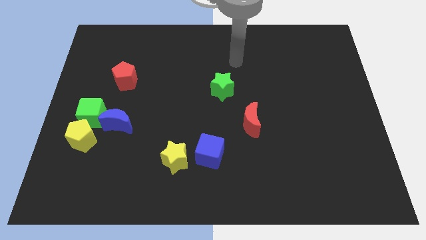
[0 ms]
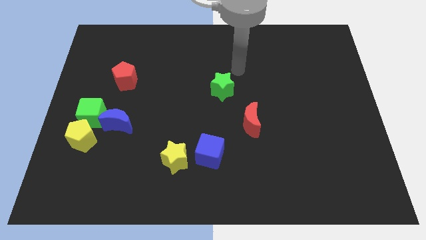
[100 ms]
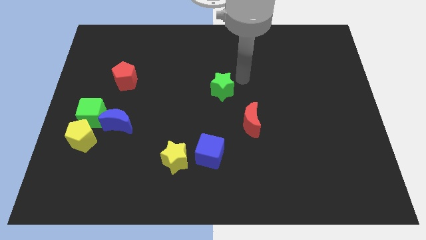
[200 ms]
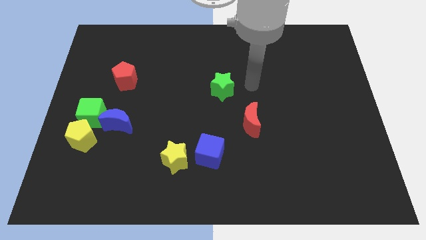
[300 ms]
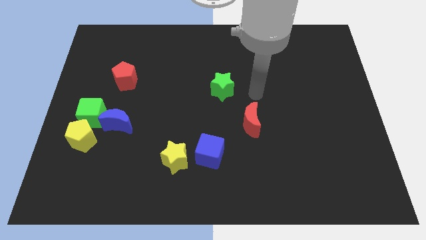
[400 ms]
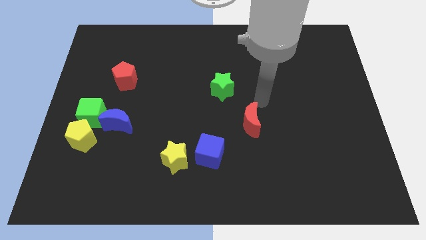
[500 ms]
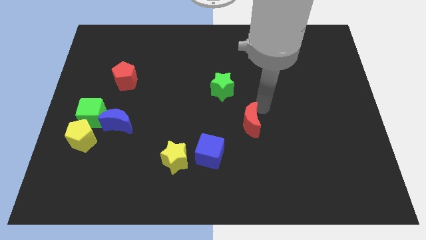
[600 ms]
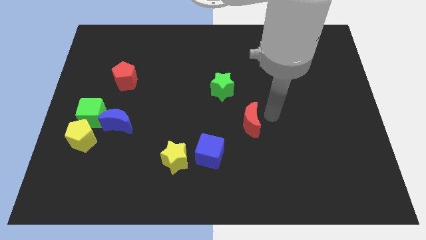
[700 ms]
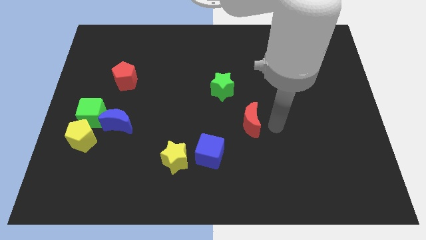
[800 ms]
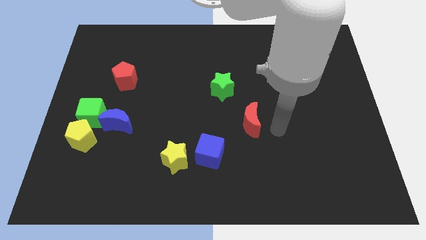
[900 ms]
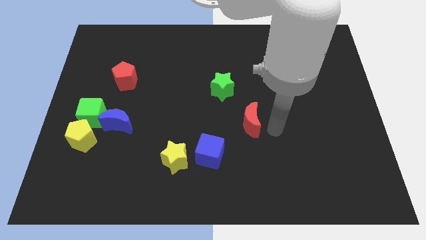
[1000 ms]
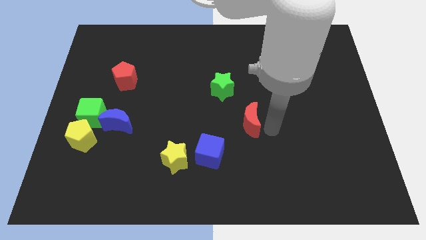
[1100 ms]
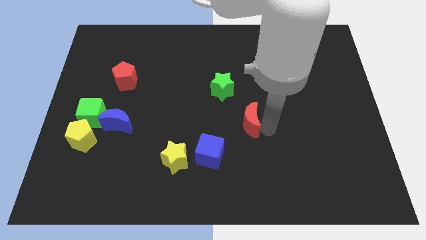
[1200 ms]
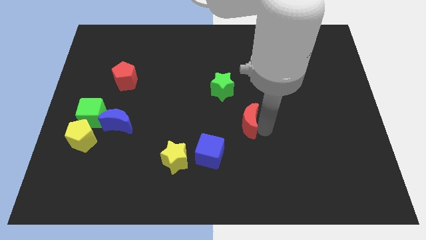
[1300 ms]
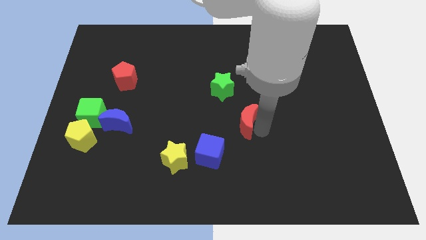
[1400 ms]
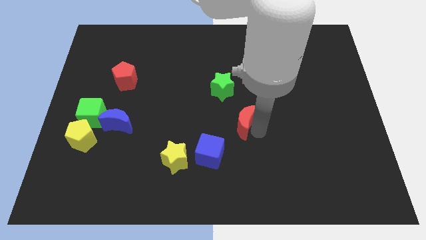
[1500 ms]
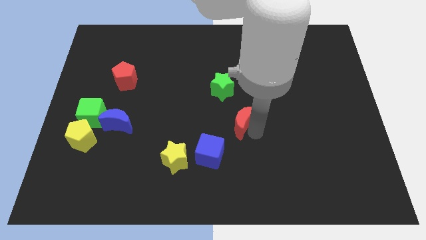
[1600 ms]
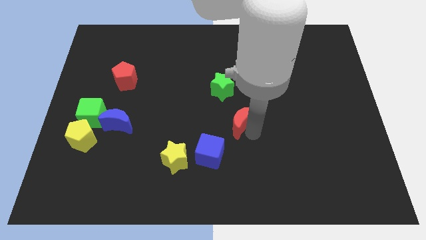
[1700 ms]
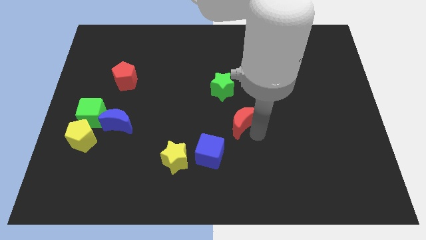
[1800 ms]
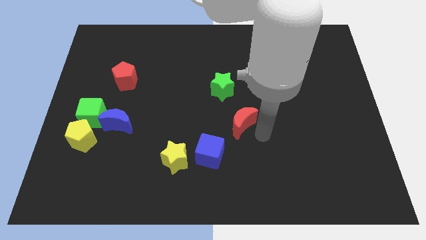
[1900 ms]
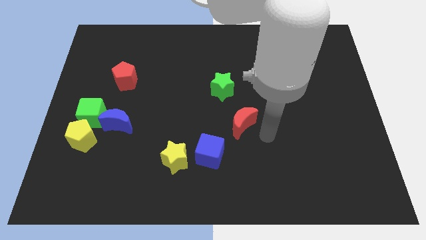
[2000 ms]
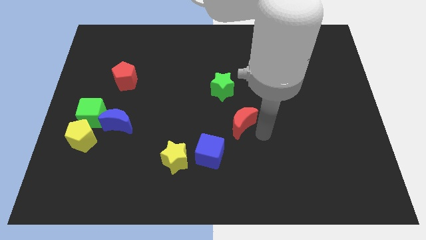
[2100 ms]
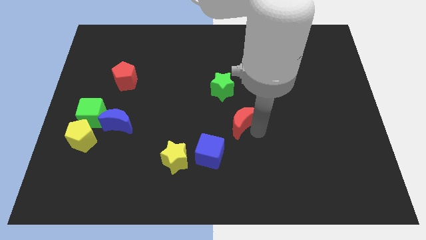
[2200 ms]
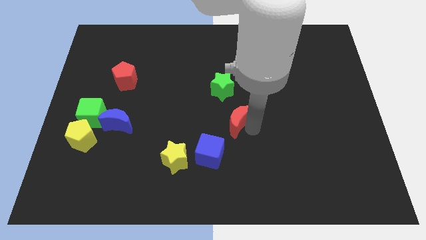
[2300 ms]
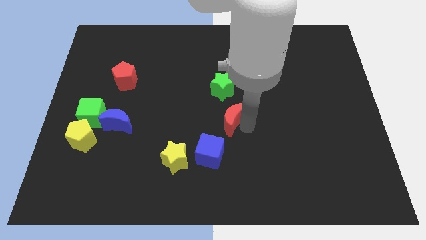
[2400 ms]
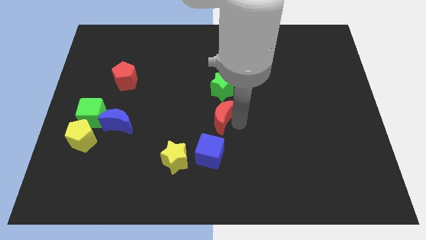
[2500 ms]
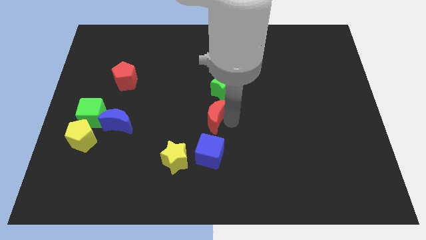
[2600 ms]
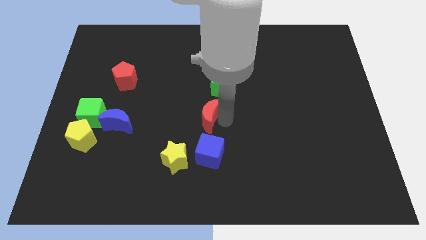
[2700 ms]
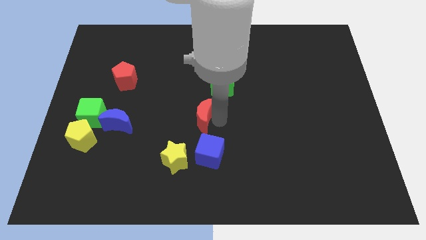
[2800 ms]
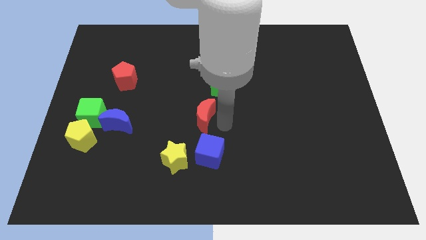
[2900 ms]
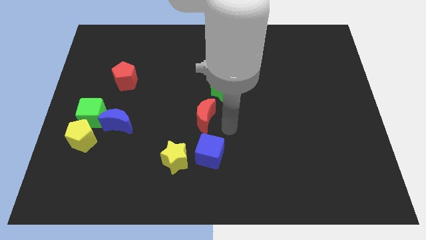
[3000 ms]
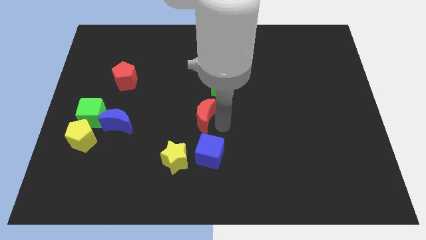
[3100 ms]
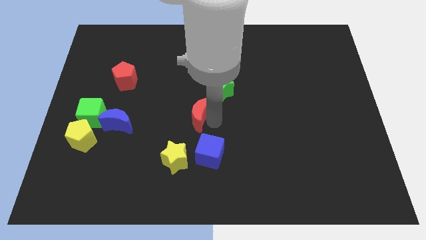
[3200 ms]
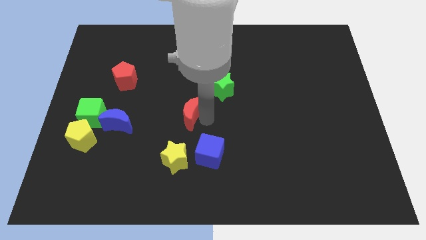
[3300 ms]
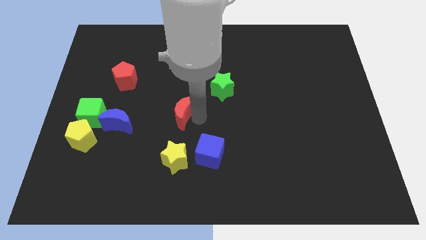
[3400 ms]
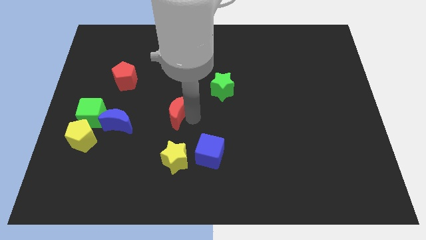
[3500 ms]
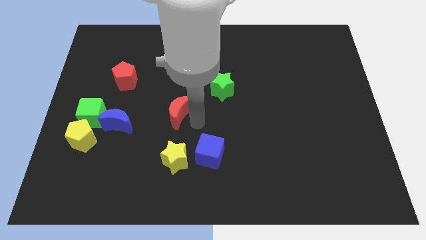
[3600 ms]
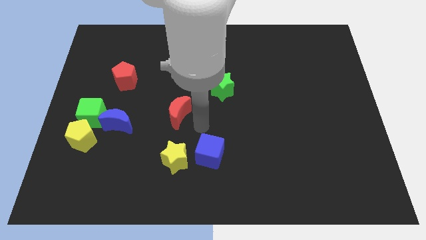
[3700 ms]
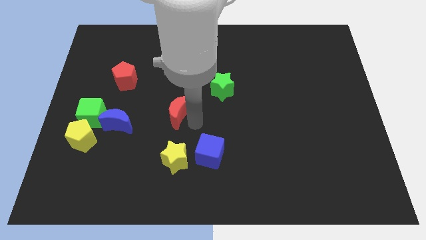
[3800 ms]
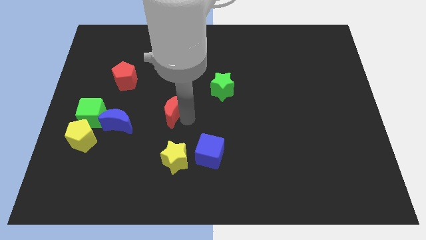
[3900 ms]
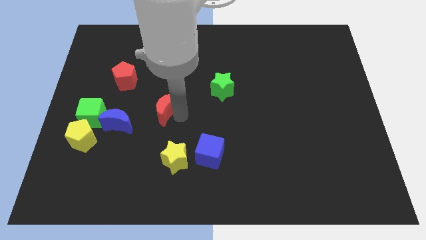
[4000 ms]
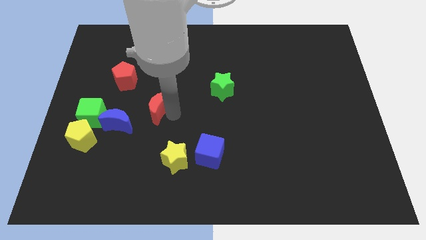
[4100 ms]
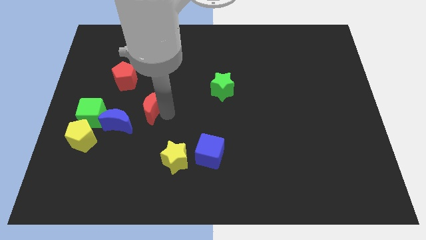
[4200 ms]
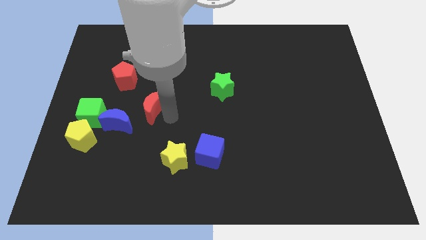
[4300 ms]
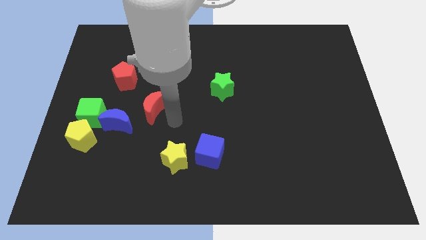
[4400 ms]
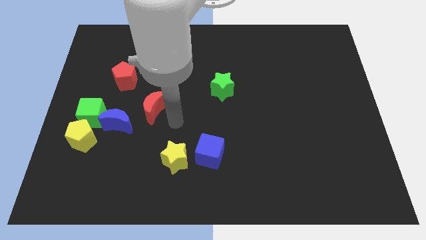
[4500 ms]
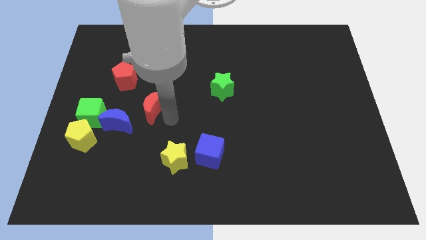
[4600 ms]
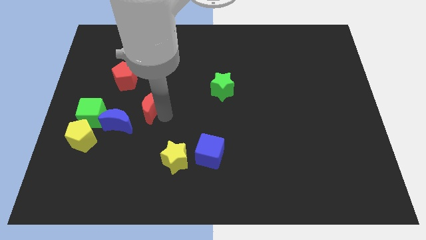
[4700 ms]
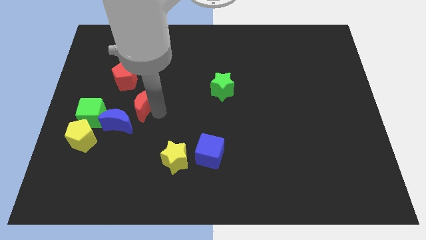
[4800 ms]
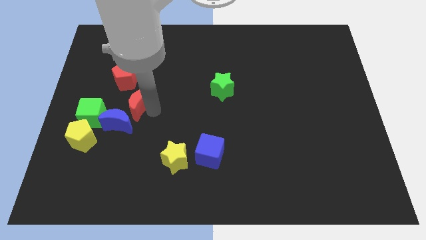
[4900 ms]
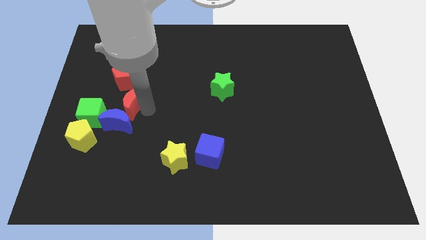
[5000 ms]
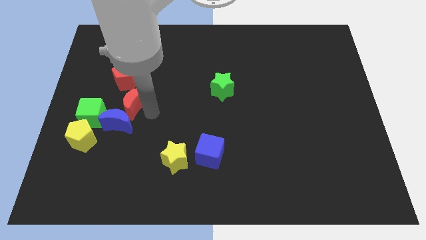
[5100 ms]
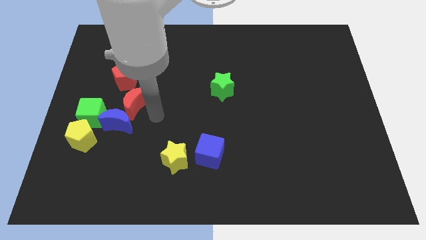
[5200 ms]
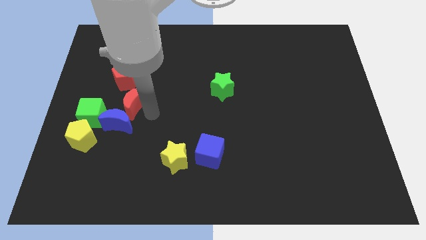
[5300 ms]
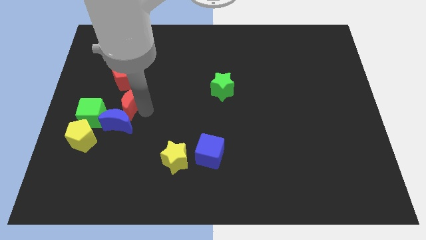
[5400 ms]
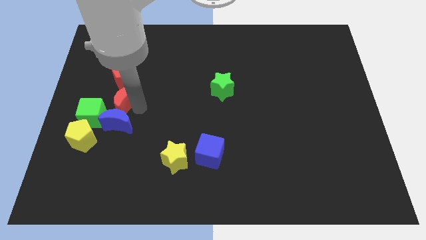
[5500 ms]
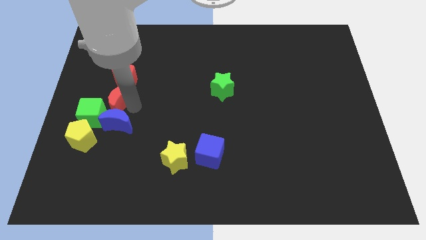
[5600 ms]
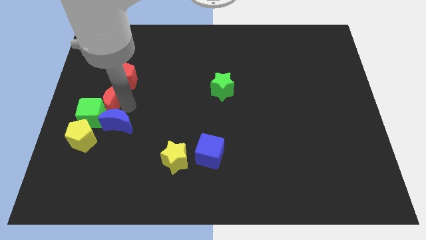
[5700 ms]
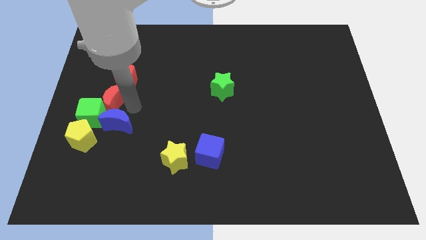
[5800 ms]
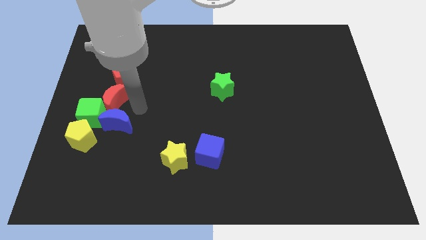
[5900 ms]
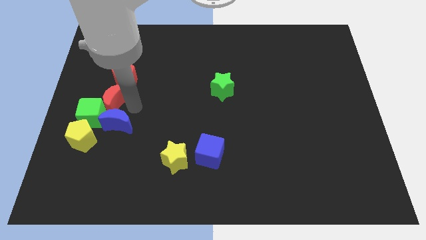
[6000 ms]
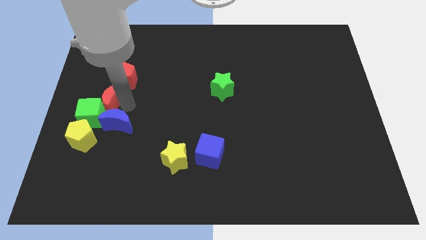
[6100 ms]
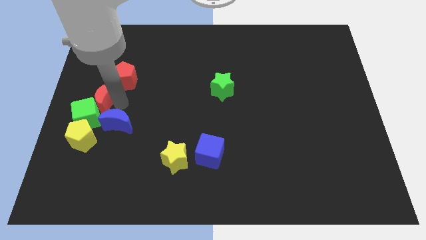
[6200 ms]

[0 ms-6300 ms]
move the red moon to the left side of the board

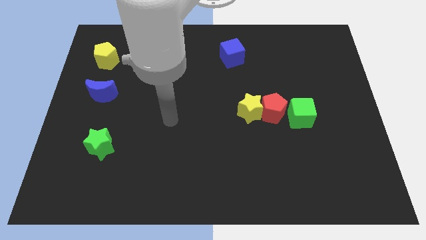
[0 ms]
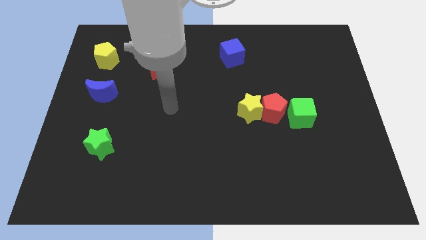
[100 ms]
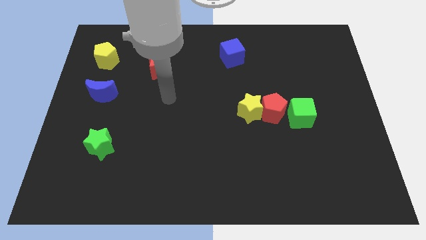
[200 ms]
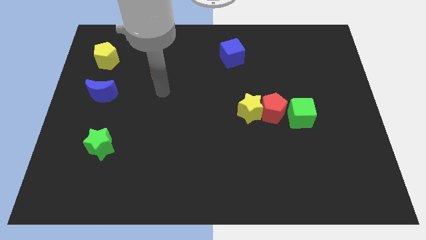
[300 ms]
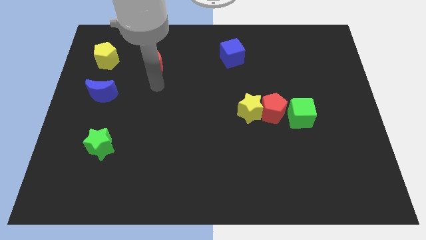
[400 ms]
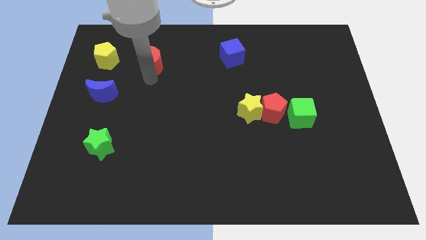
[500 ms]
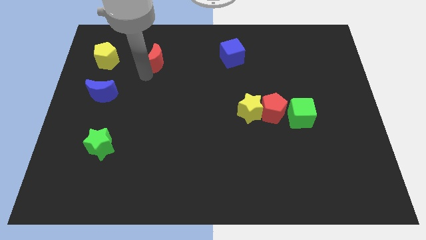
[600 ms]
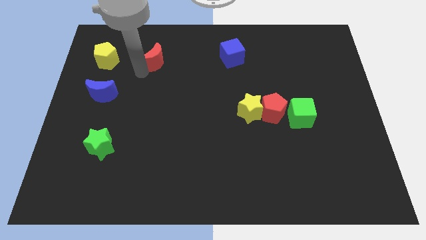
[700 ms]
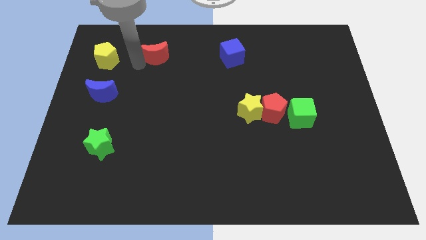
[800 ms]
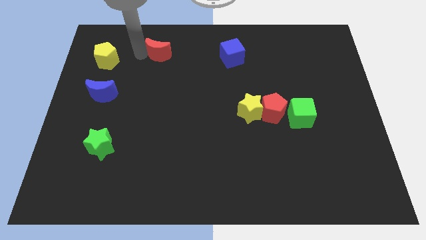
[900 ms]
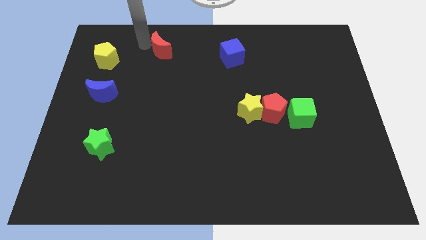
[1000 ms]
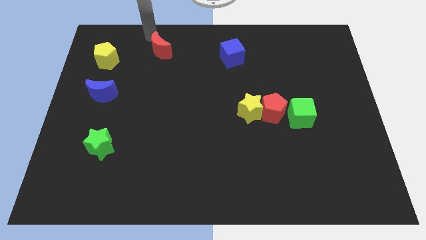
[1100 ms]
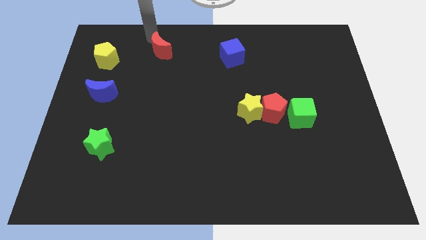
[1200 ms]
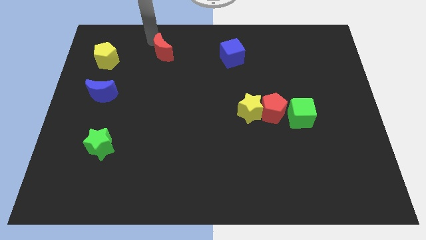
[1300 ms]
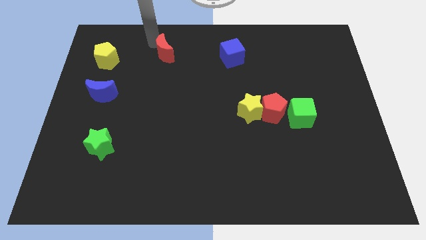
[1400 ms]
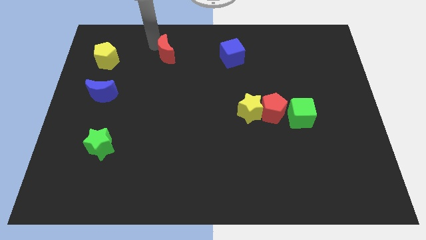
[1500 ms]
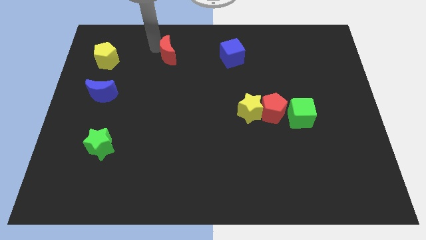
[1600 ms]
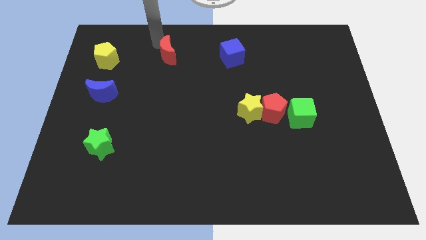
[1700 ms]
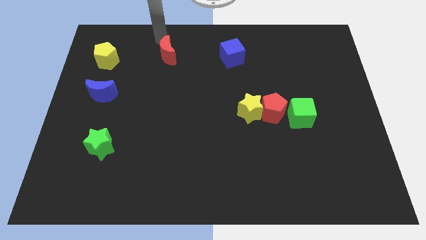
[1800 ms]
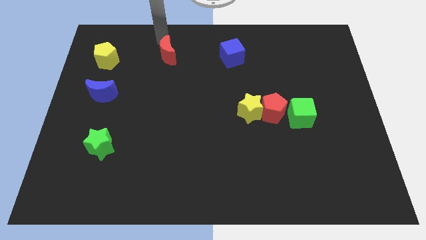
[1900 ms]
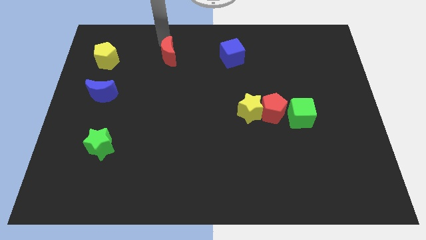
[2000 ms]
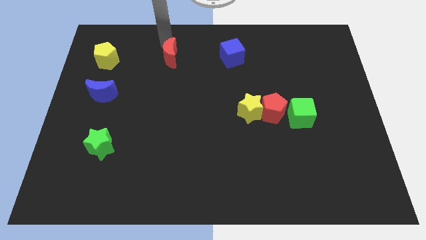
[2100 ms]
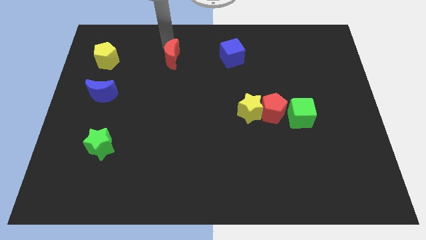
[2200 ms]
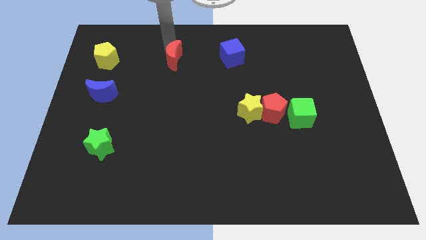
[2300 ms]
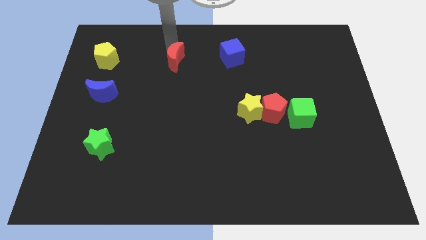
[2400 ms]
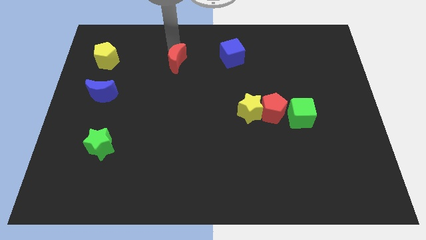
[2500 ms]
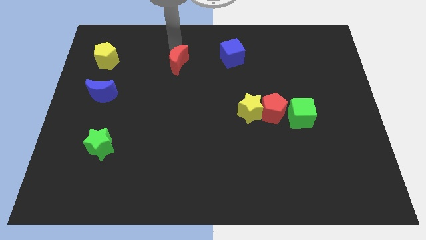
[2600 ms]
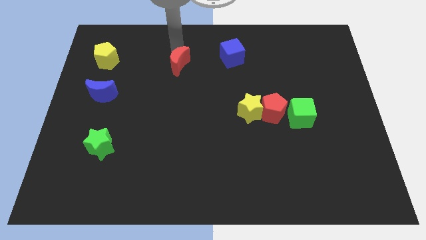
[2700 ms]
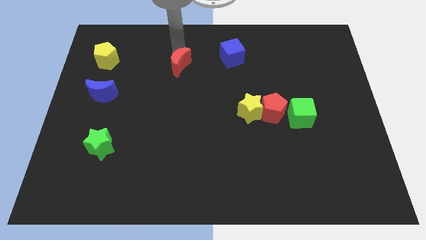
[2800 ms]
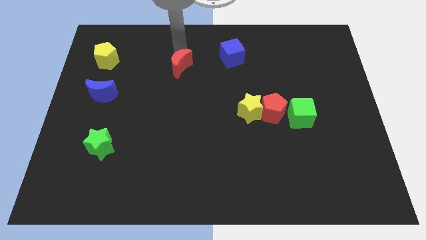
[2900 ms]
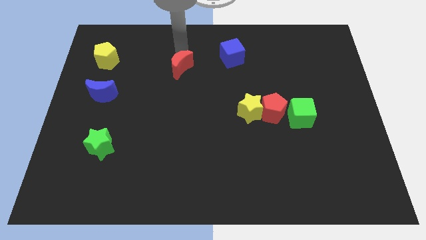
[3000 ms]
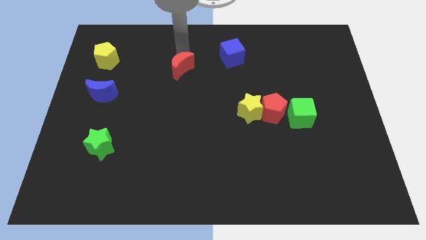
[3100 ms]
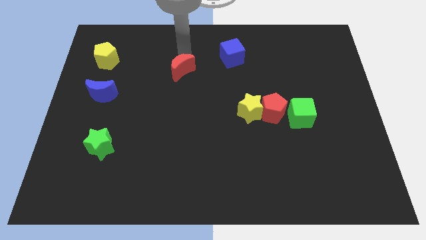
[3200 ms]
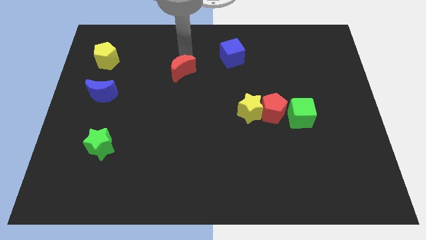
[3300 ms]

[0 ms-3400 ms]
push the red moon to the middle
